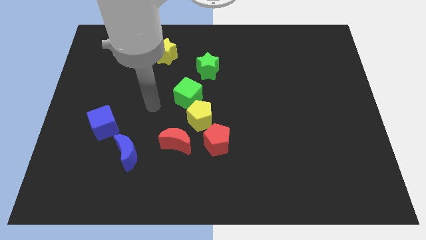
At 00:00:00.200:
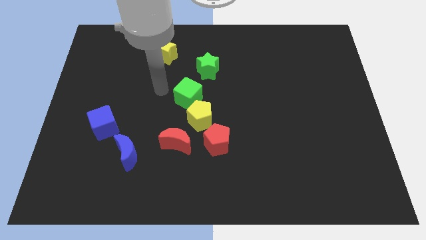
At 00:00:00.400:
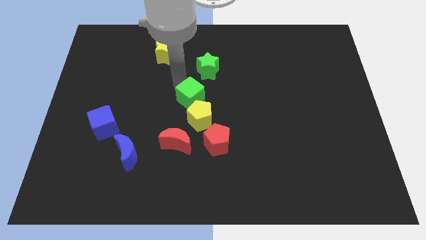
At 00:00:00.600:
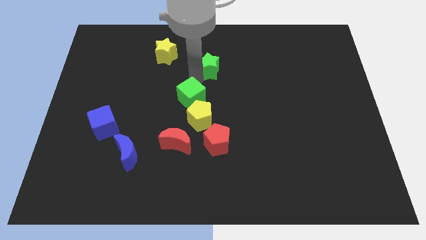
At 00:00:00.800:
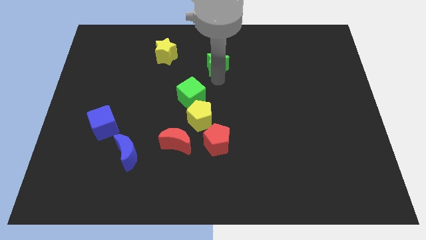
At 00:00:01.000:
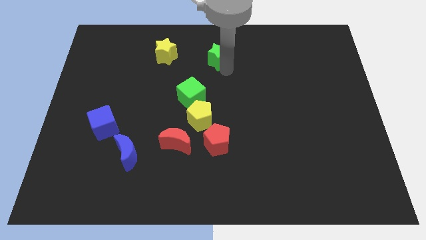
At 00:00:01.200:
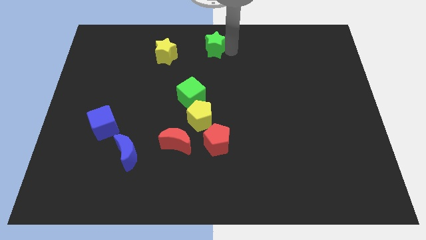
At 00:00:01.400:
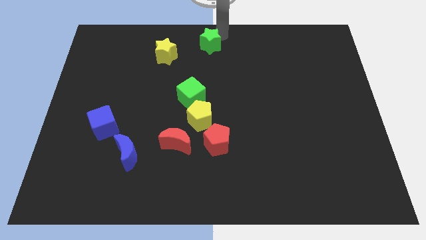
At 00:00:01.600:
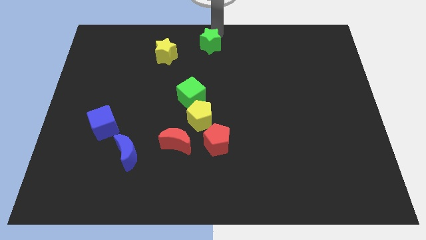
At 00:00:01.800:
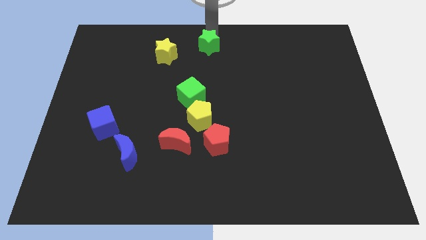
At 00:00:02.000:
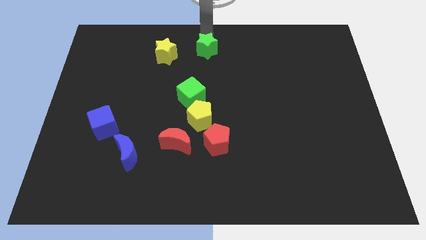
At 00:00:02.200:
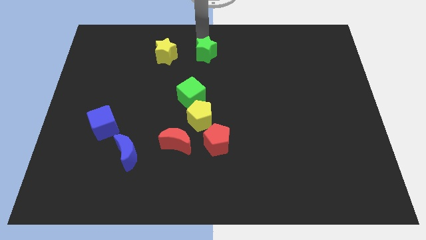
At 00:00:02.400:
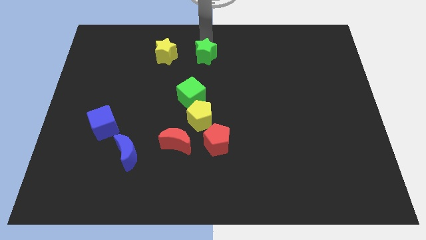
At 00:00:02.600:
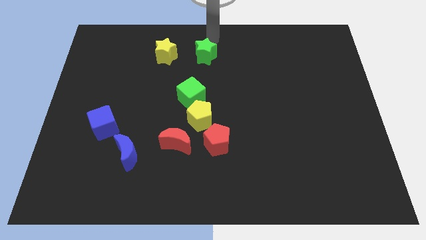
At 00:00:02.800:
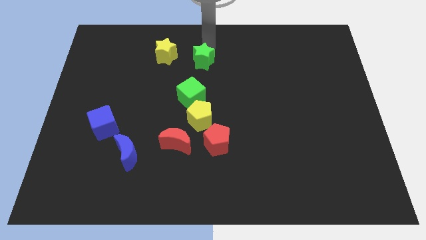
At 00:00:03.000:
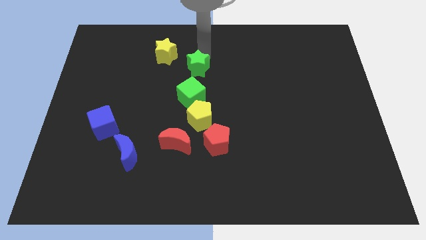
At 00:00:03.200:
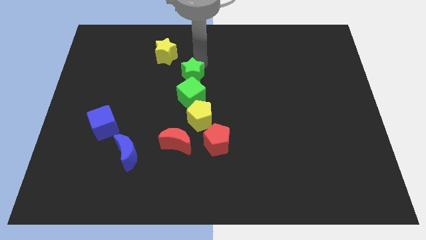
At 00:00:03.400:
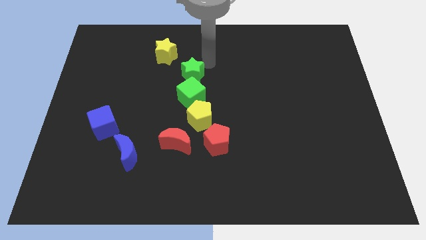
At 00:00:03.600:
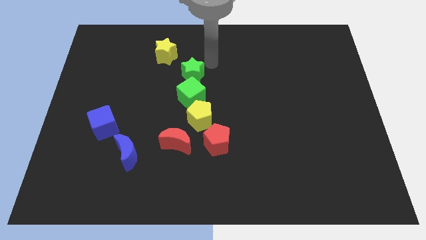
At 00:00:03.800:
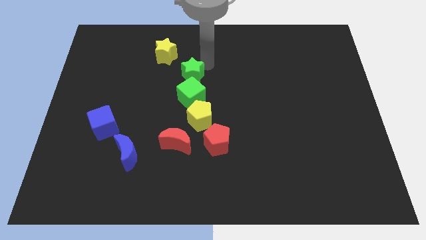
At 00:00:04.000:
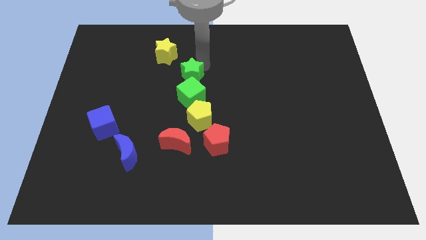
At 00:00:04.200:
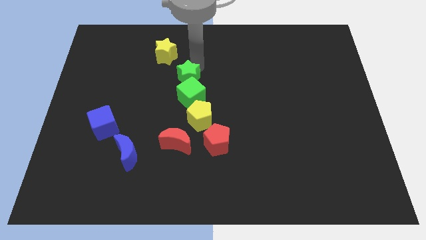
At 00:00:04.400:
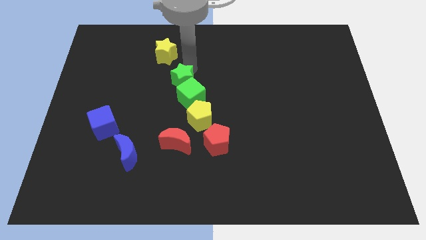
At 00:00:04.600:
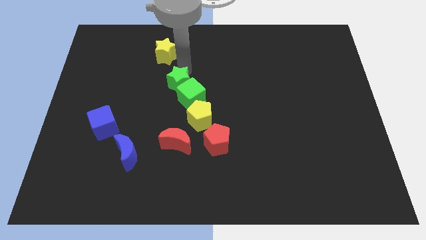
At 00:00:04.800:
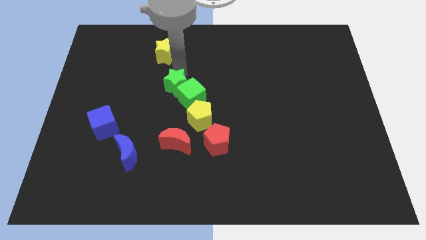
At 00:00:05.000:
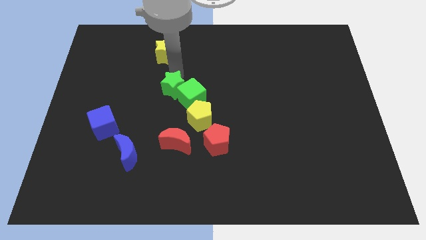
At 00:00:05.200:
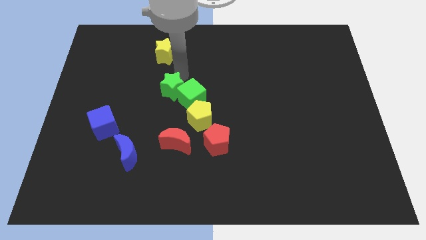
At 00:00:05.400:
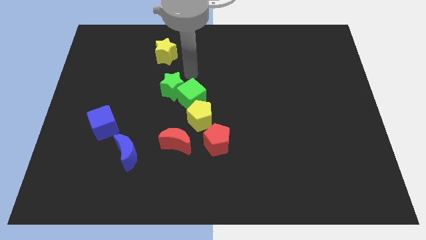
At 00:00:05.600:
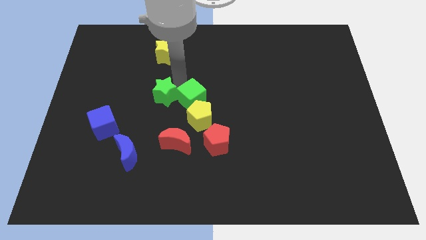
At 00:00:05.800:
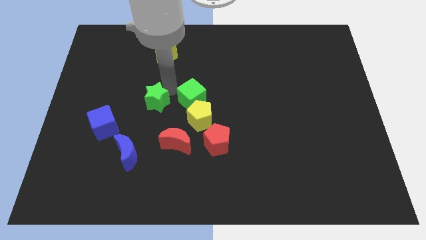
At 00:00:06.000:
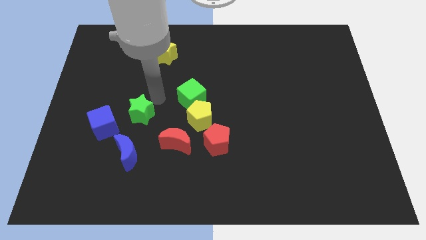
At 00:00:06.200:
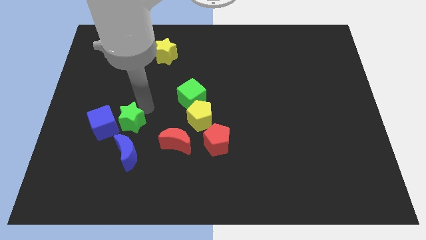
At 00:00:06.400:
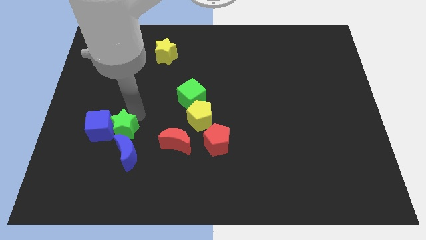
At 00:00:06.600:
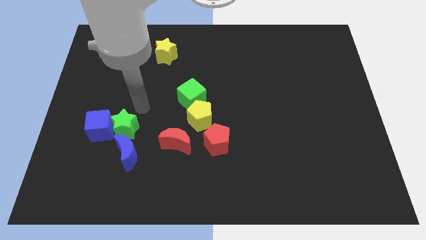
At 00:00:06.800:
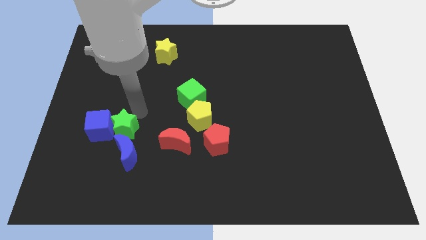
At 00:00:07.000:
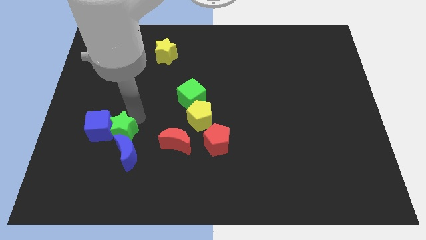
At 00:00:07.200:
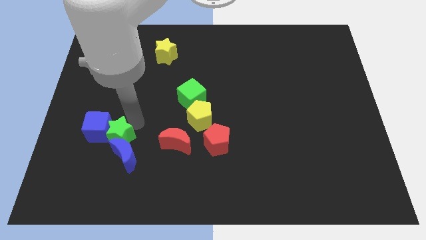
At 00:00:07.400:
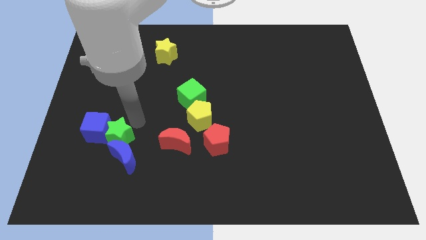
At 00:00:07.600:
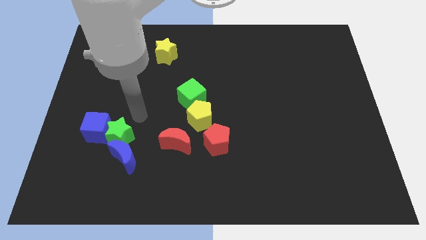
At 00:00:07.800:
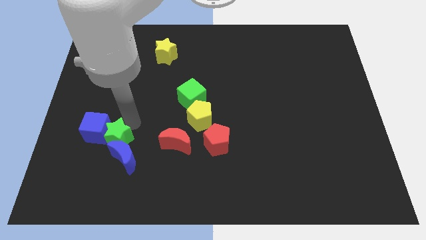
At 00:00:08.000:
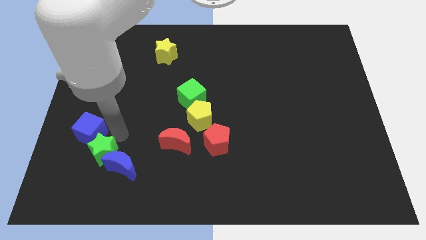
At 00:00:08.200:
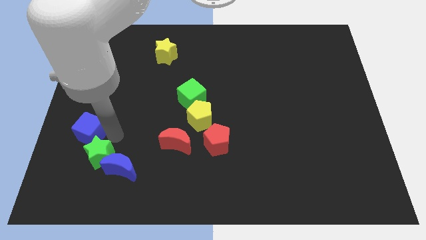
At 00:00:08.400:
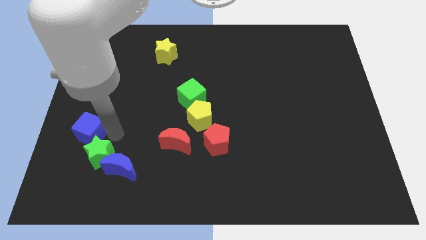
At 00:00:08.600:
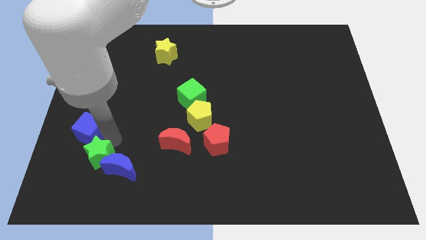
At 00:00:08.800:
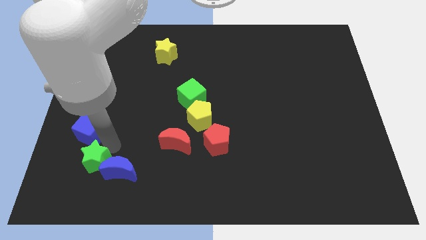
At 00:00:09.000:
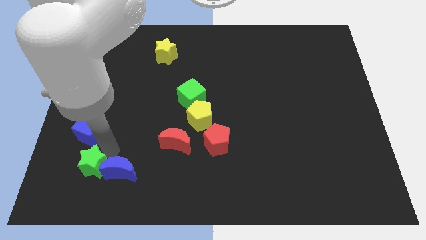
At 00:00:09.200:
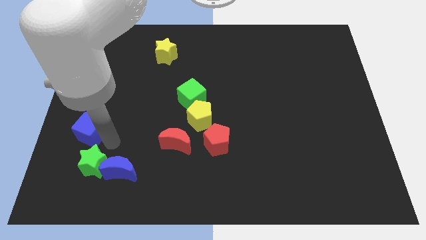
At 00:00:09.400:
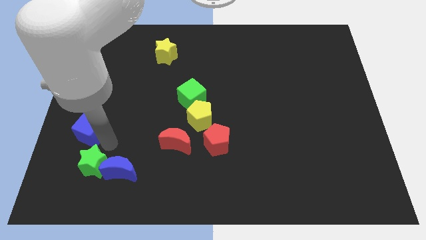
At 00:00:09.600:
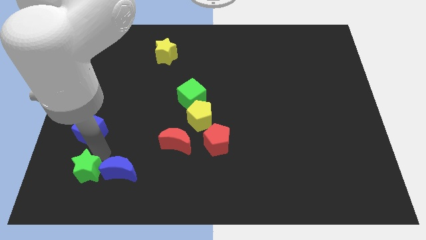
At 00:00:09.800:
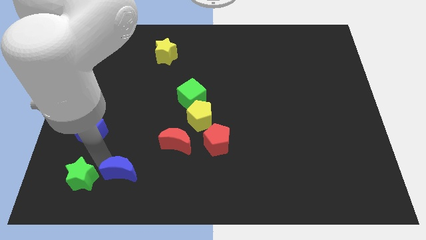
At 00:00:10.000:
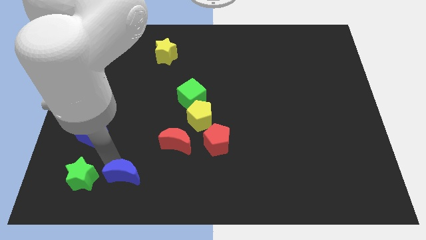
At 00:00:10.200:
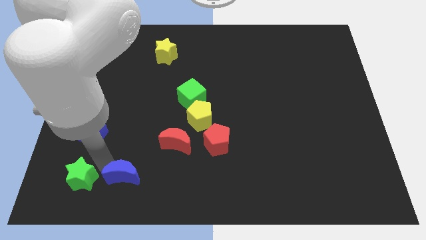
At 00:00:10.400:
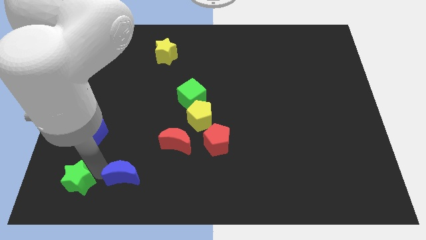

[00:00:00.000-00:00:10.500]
put the green star to the bottom left of the board

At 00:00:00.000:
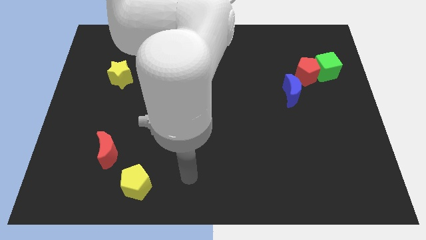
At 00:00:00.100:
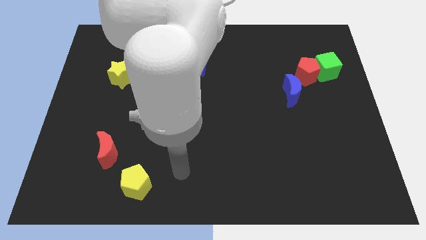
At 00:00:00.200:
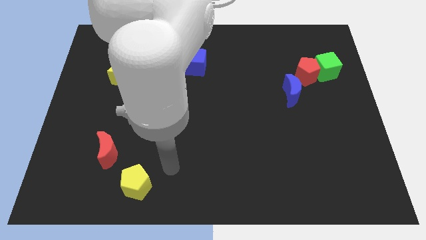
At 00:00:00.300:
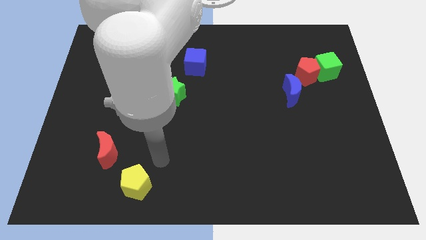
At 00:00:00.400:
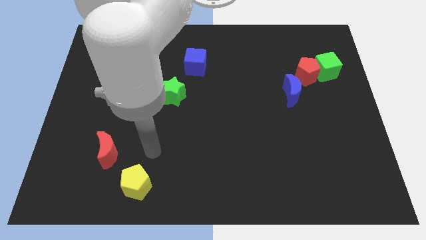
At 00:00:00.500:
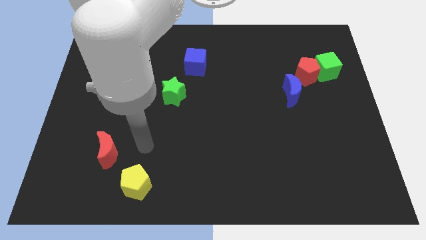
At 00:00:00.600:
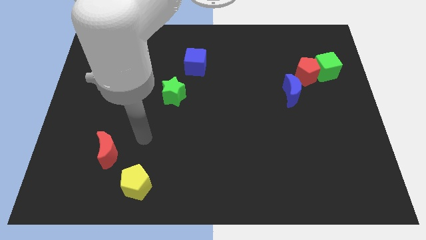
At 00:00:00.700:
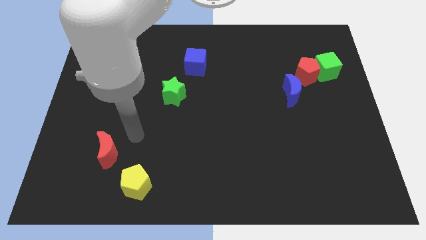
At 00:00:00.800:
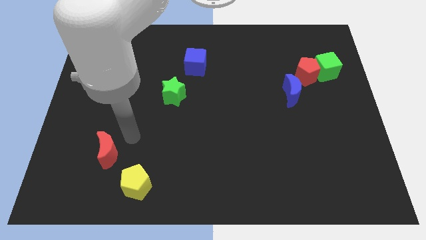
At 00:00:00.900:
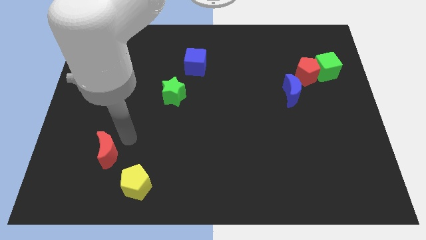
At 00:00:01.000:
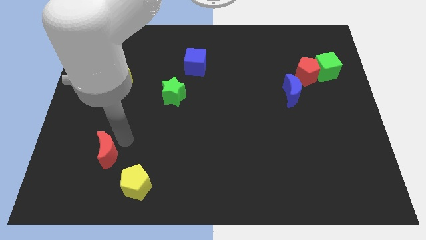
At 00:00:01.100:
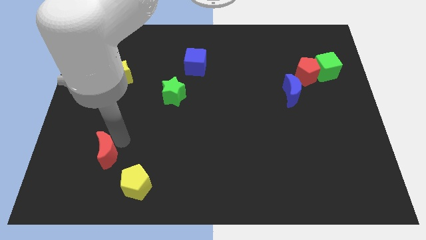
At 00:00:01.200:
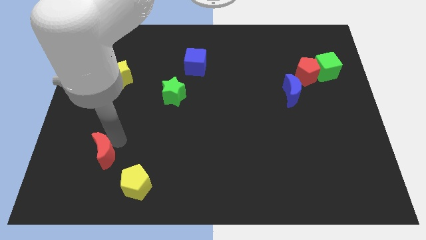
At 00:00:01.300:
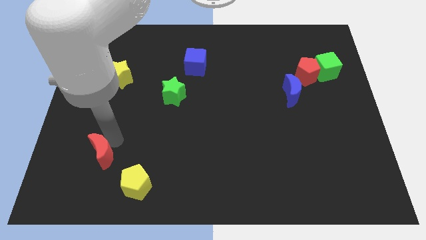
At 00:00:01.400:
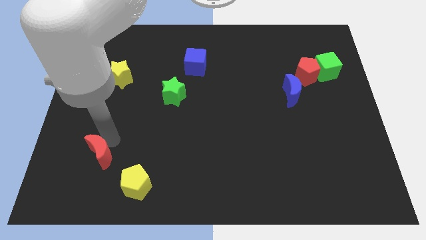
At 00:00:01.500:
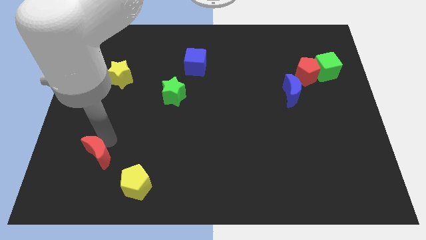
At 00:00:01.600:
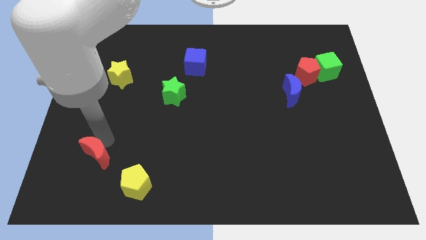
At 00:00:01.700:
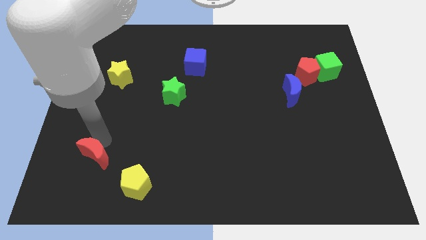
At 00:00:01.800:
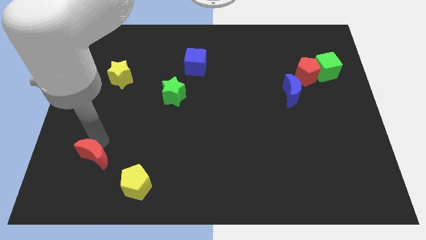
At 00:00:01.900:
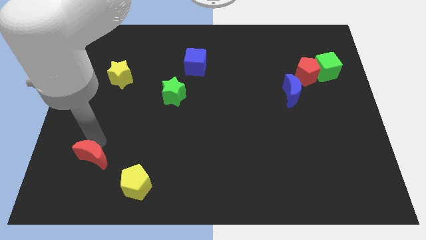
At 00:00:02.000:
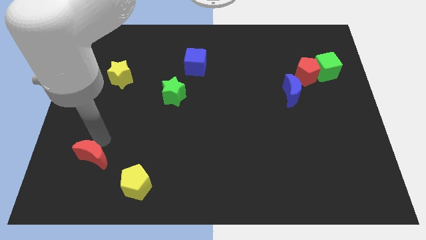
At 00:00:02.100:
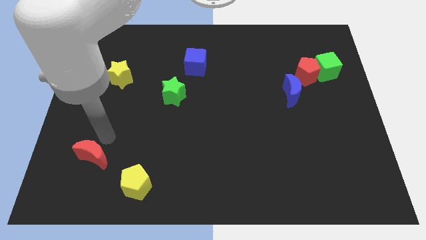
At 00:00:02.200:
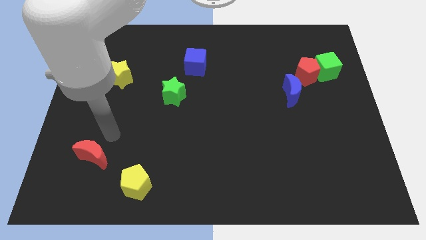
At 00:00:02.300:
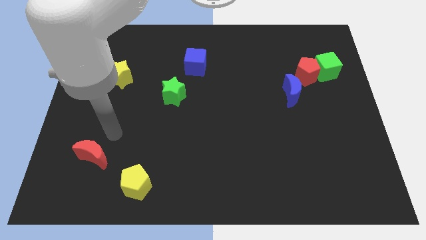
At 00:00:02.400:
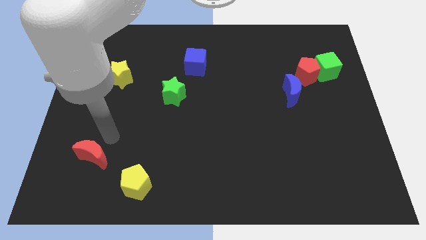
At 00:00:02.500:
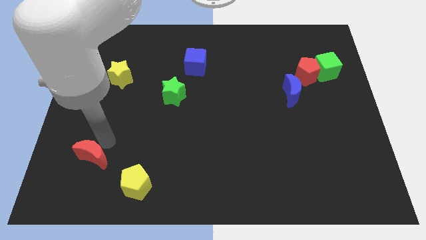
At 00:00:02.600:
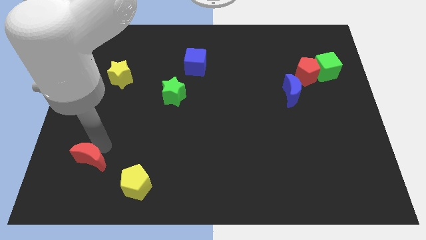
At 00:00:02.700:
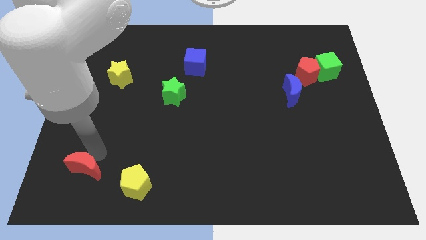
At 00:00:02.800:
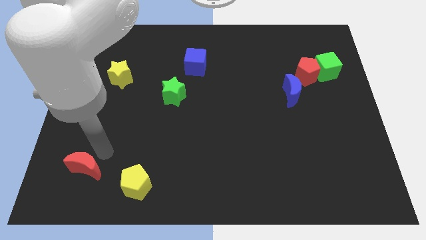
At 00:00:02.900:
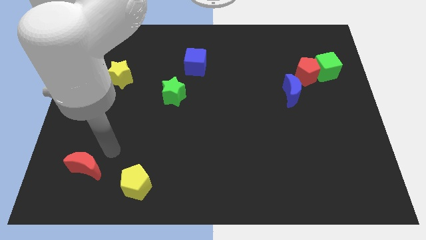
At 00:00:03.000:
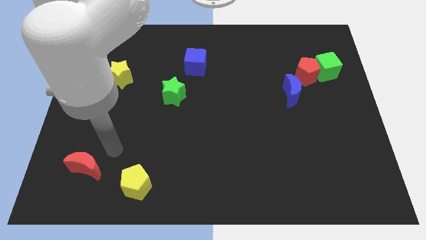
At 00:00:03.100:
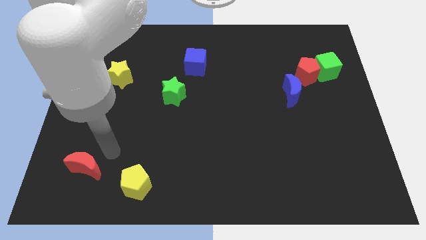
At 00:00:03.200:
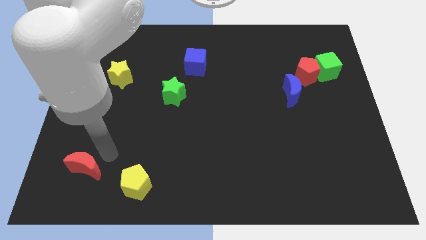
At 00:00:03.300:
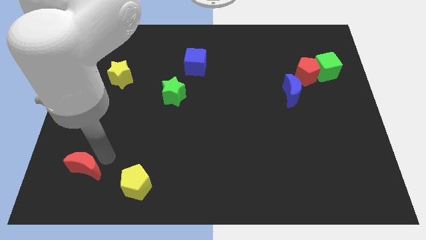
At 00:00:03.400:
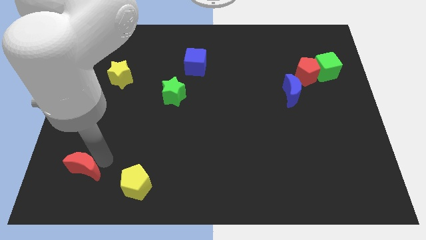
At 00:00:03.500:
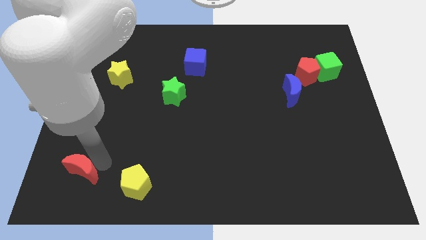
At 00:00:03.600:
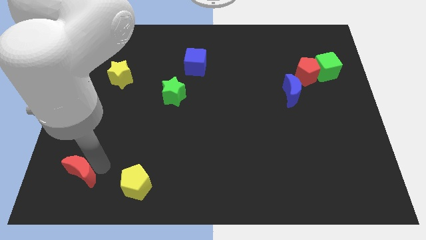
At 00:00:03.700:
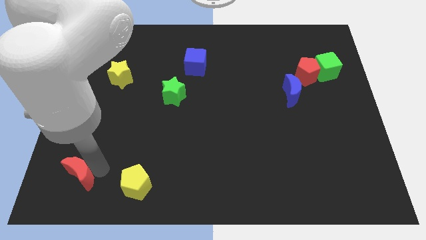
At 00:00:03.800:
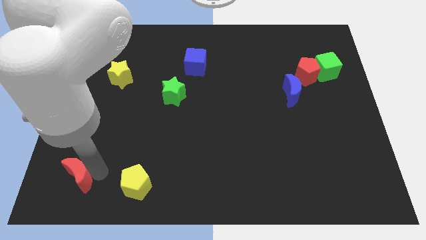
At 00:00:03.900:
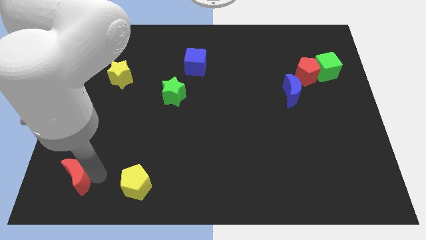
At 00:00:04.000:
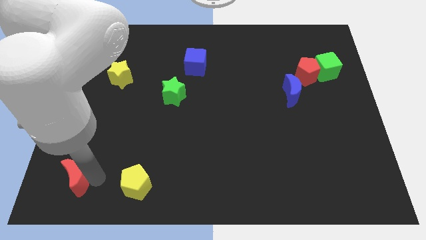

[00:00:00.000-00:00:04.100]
put the red moon to the bottom left of the board
